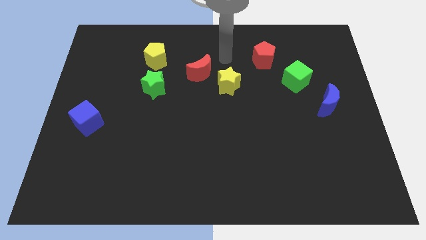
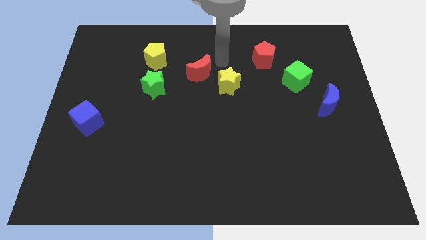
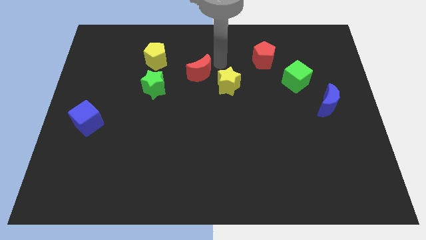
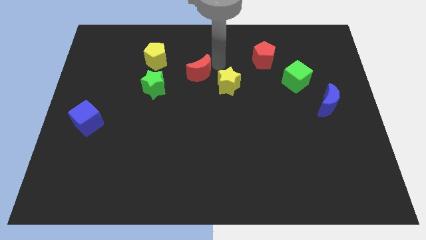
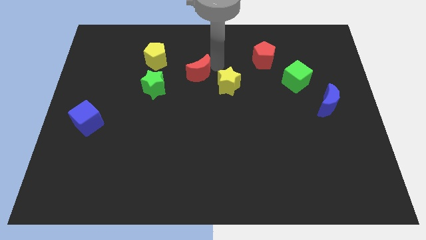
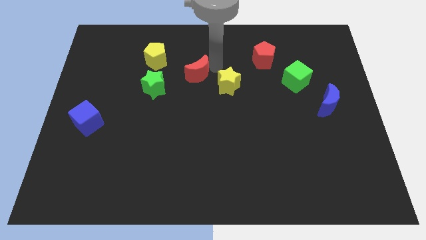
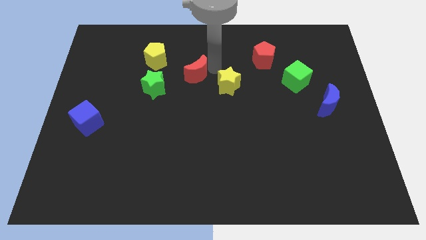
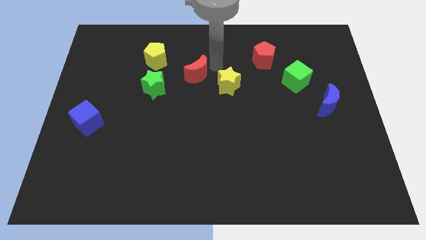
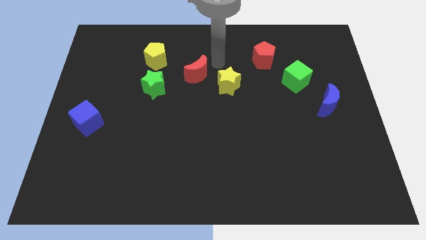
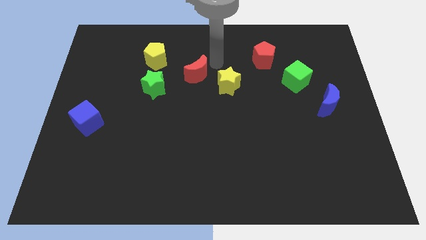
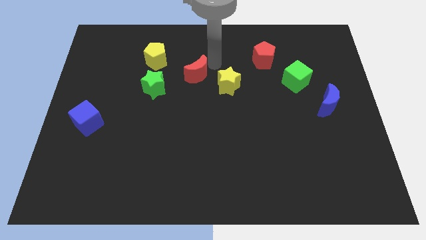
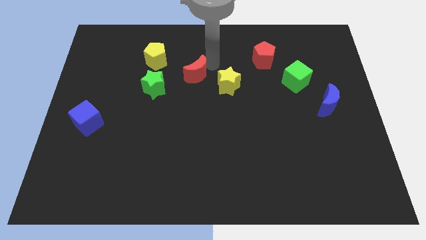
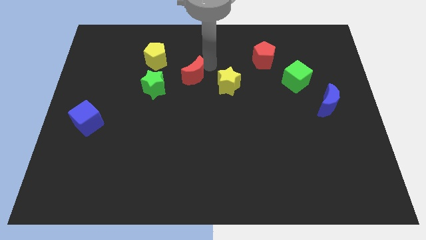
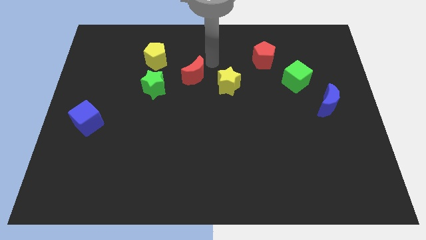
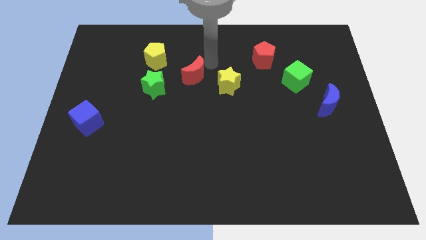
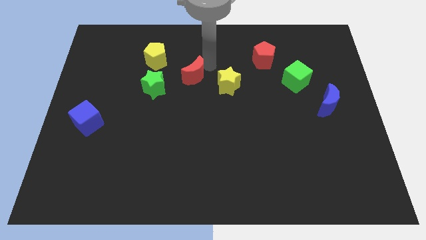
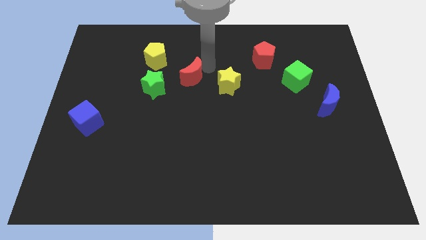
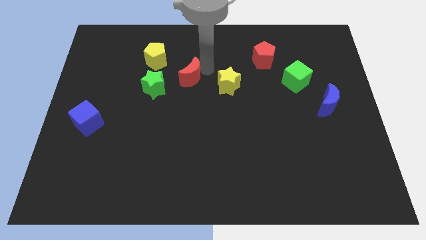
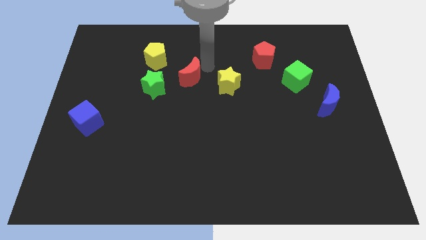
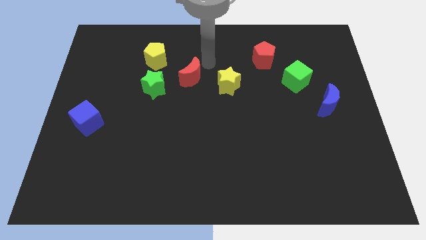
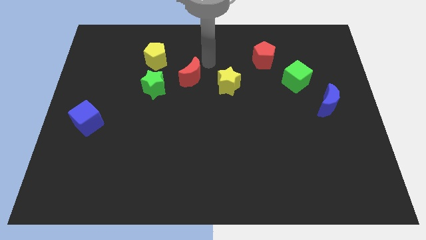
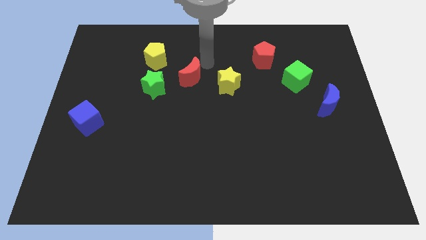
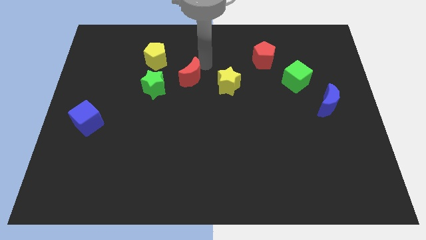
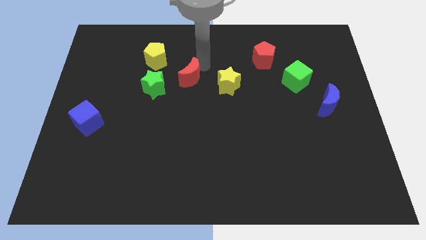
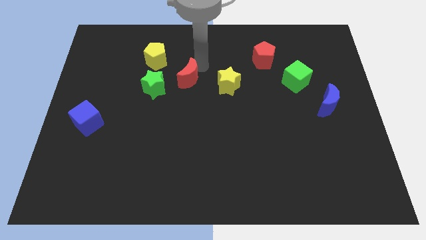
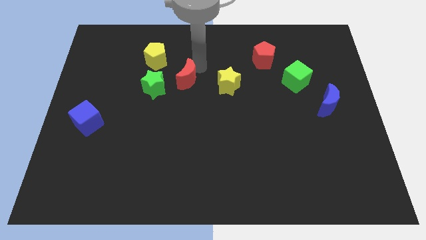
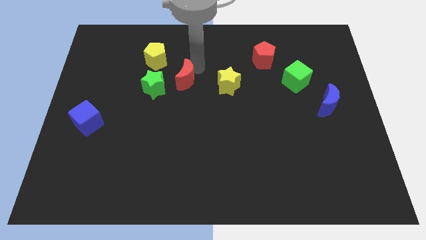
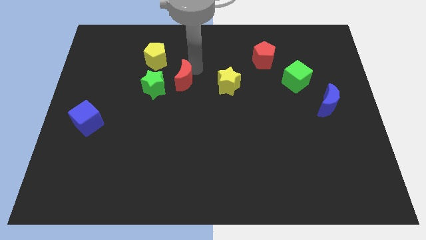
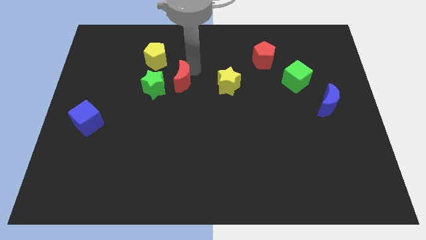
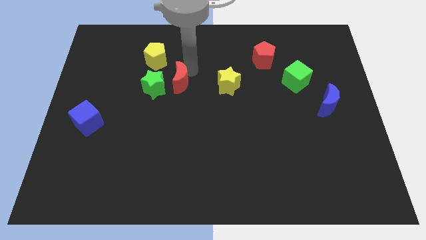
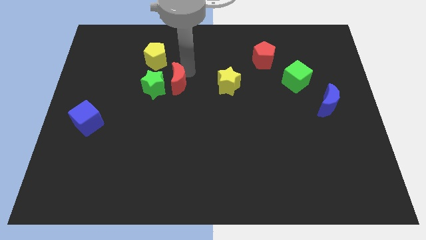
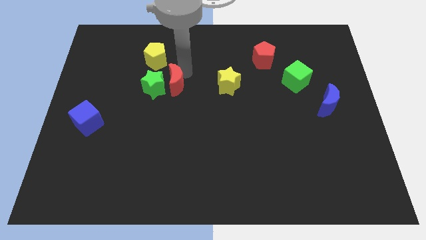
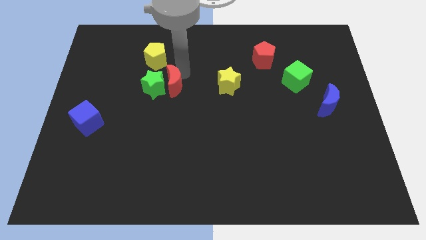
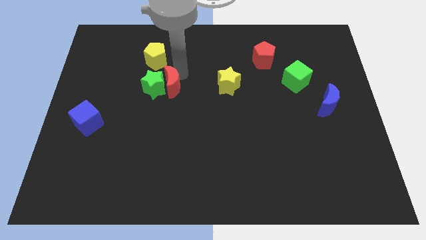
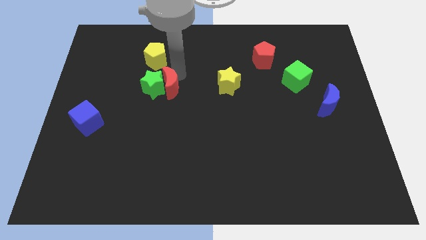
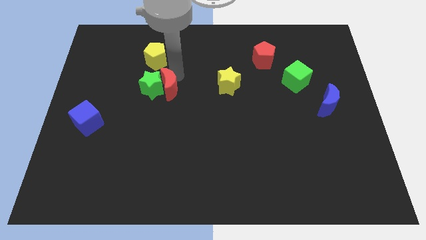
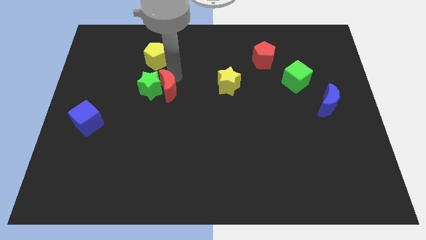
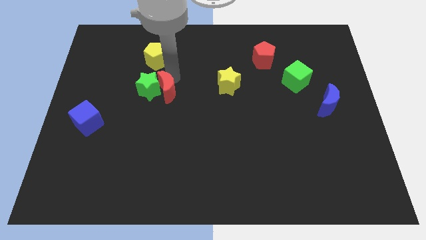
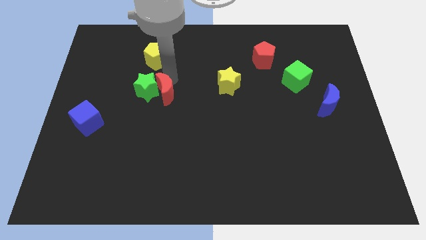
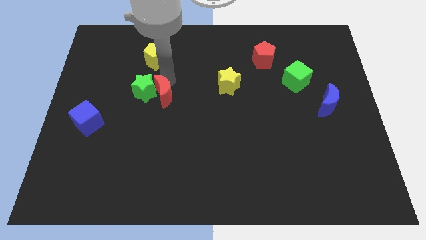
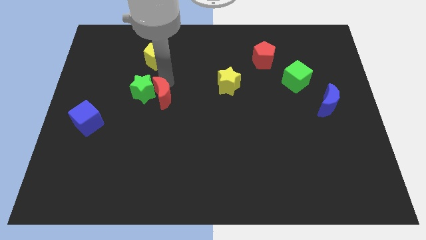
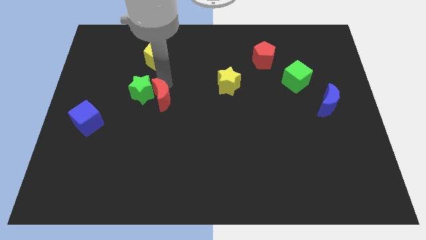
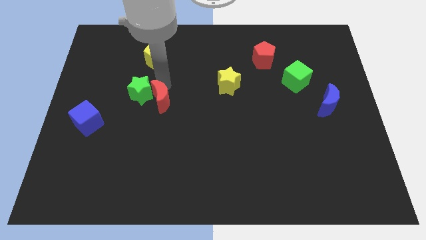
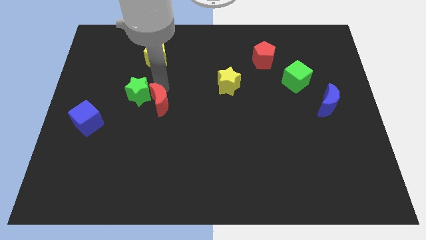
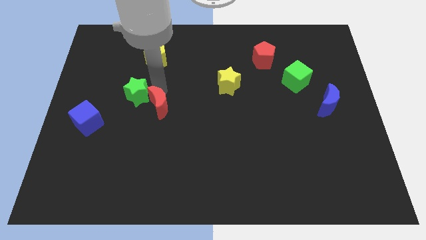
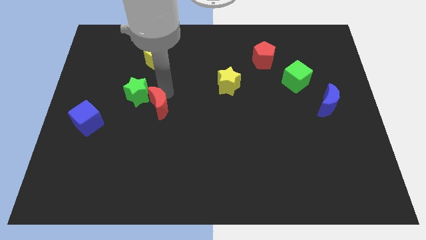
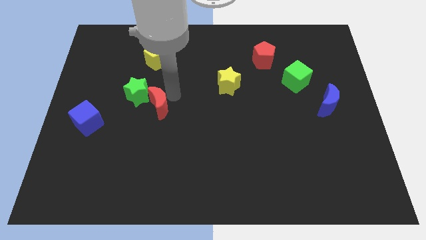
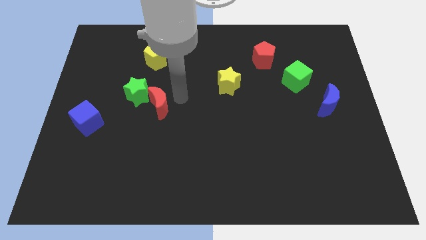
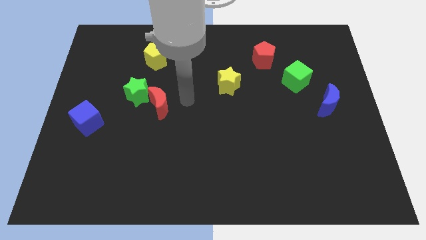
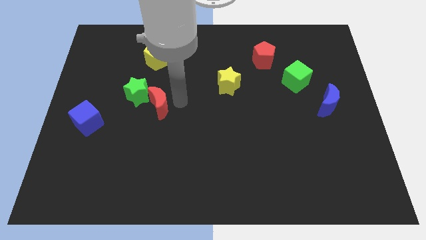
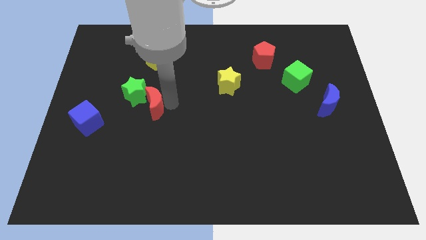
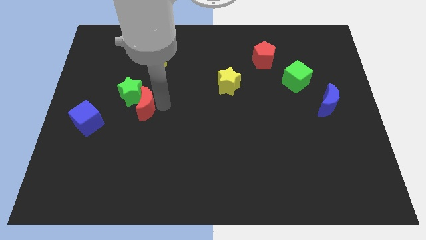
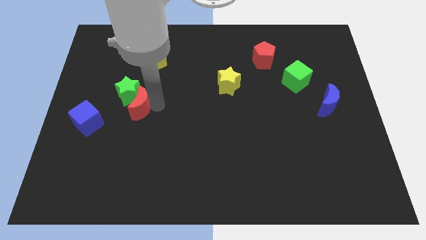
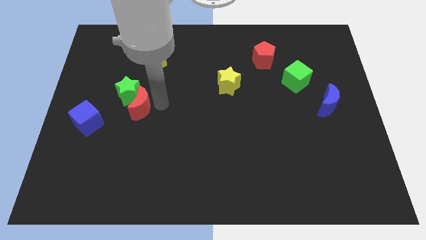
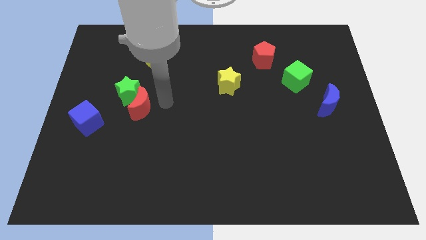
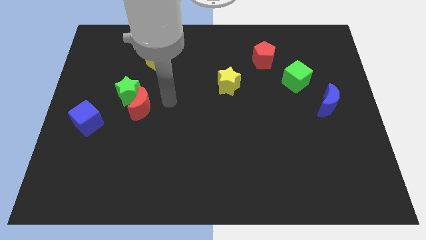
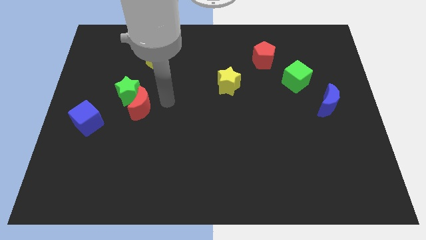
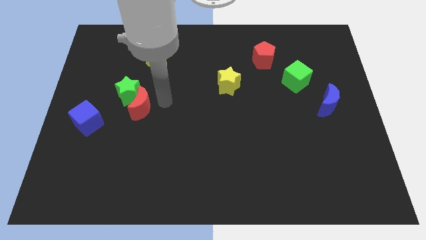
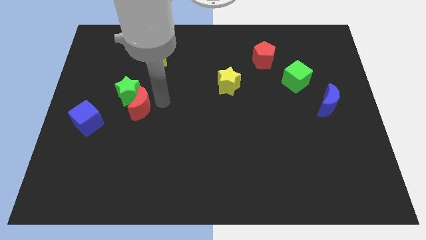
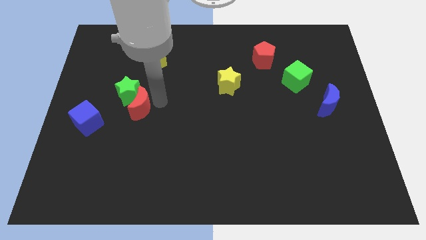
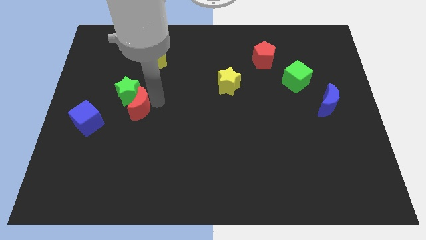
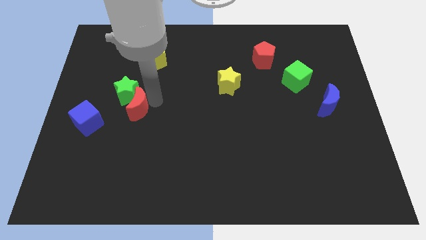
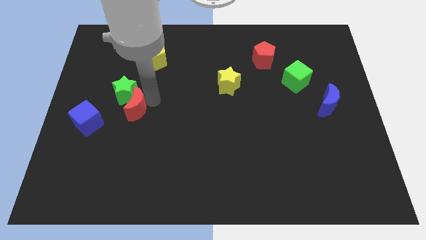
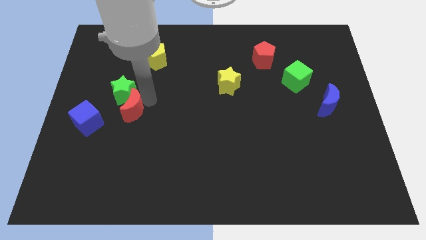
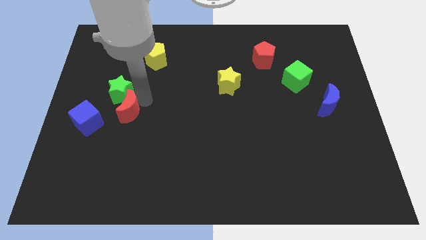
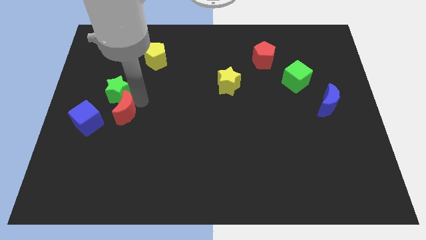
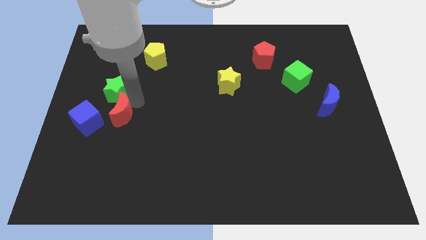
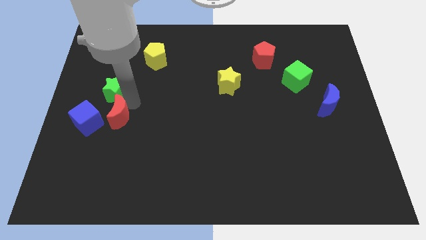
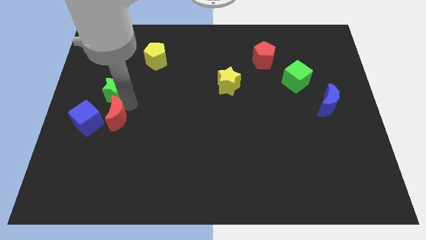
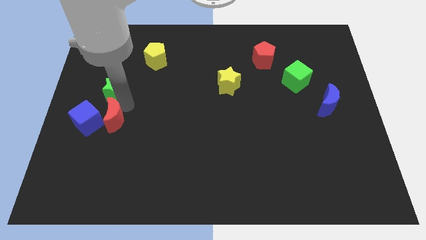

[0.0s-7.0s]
move the red moon next to the blue cube

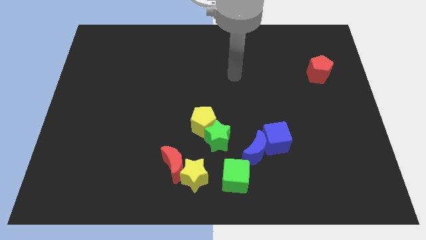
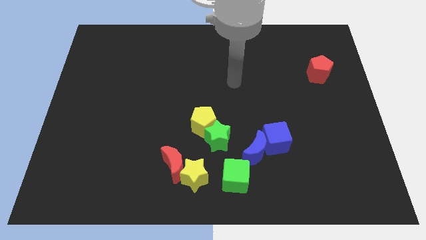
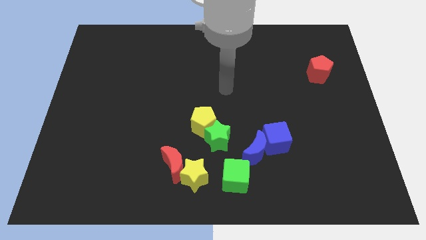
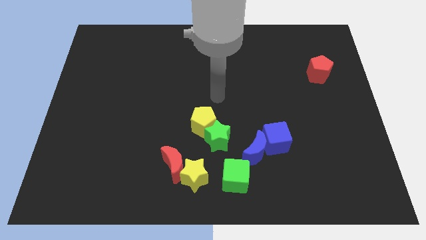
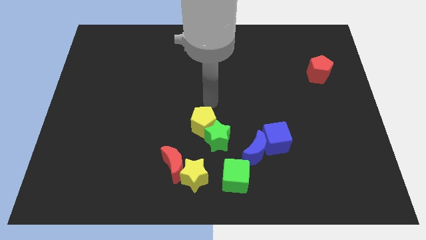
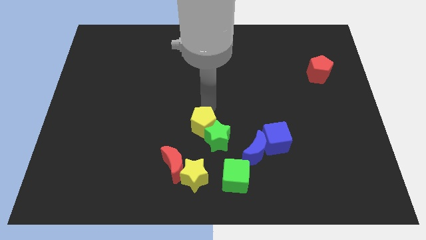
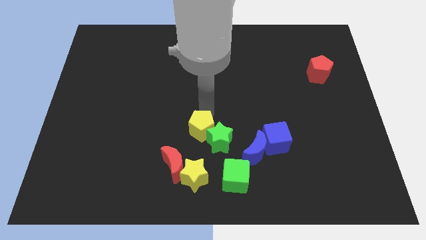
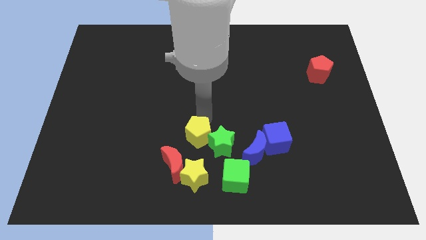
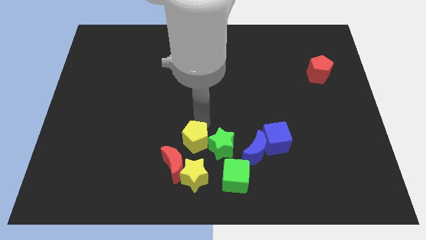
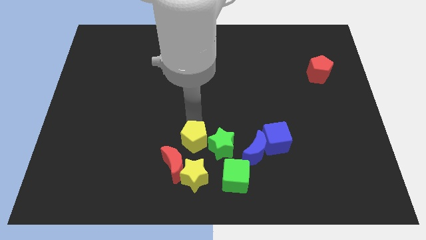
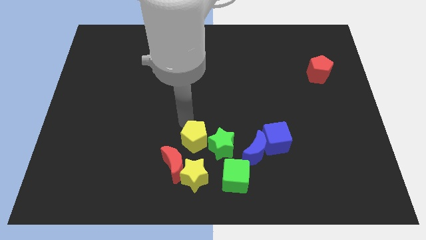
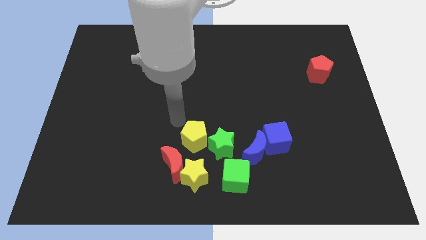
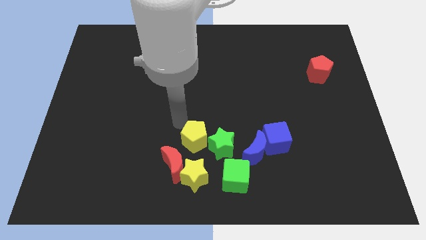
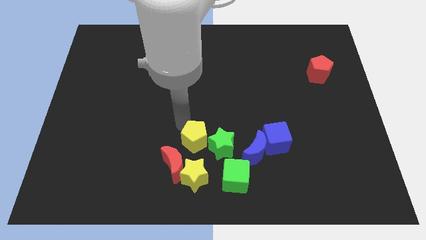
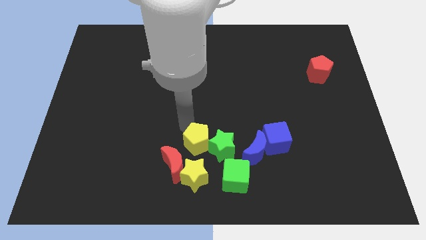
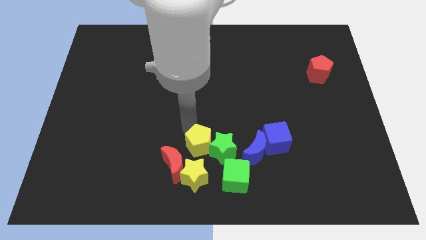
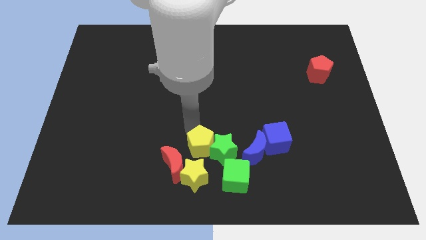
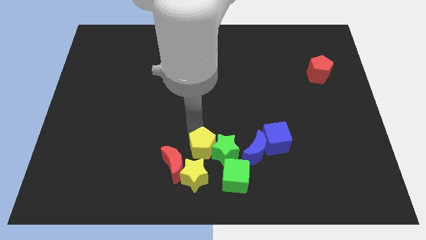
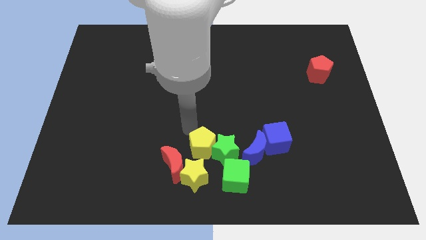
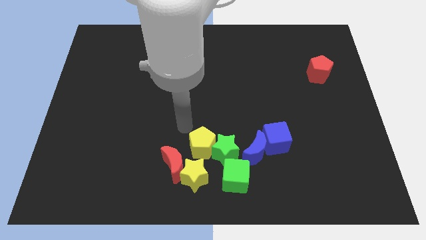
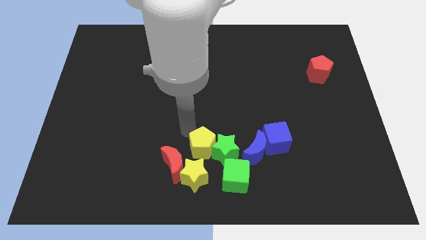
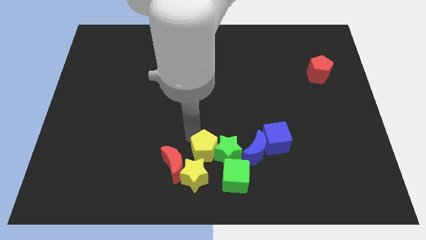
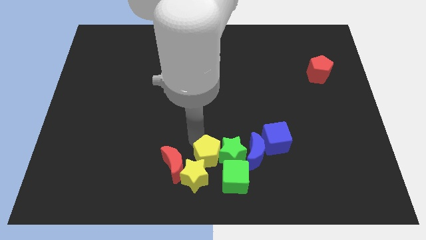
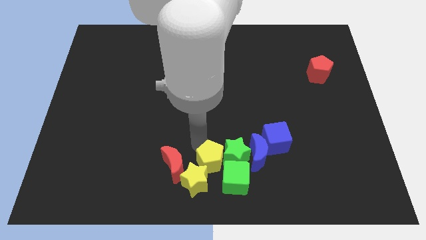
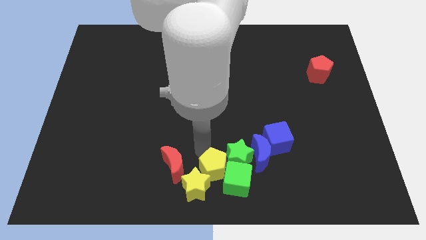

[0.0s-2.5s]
slide the yellow pentagon next to the green cube
